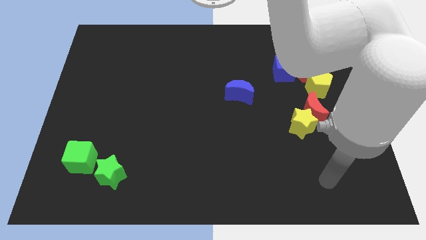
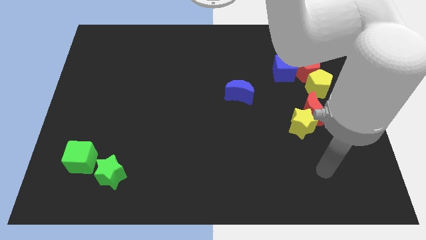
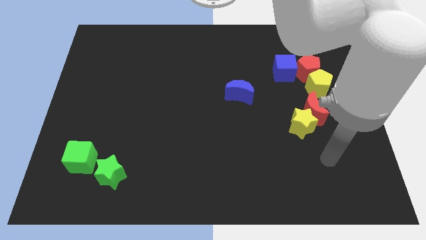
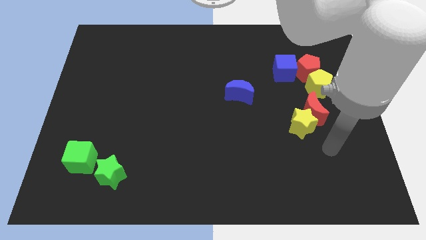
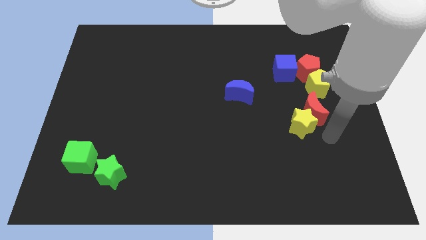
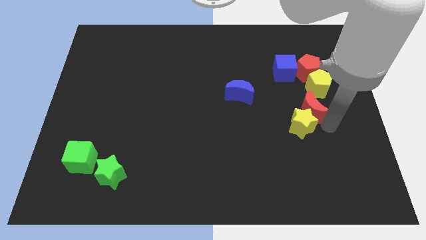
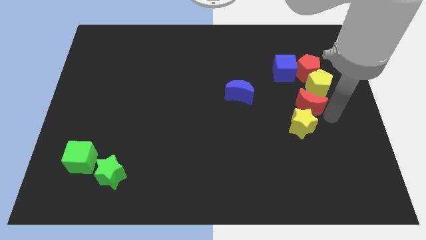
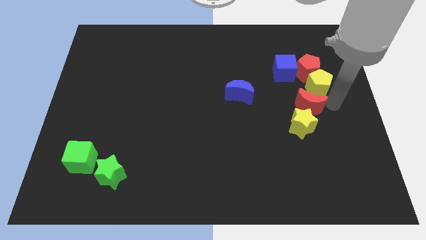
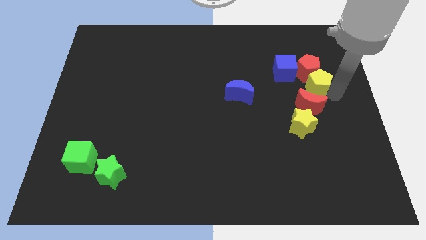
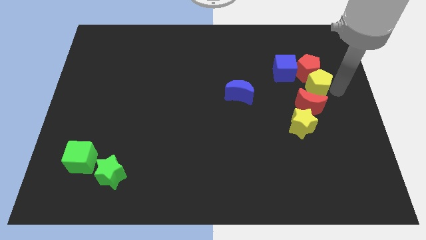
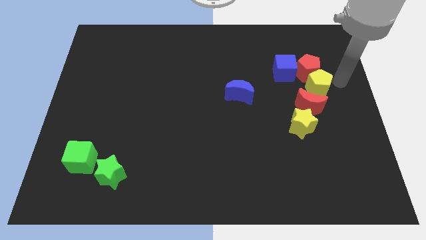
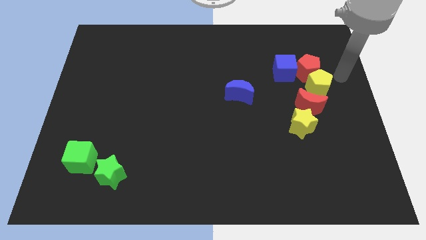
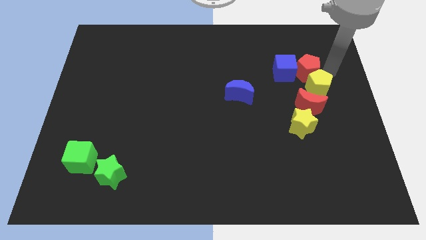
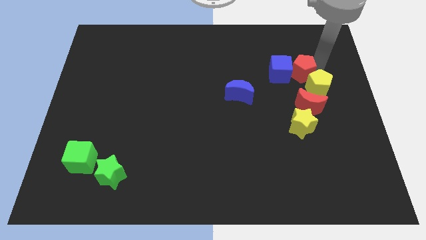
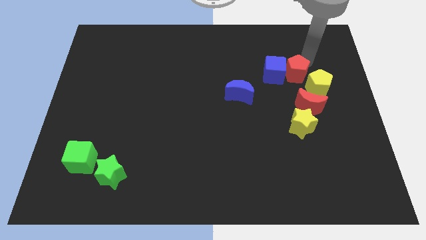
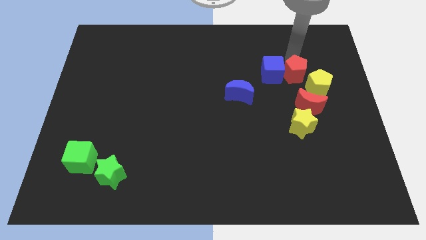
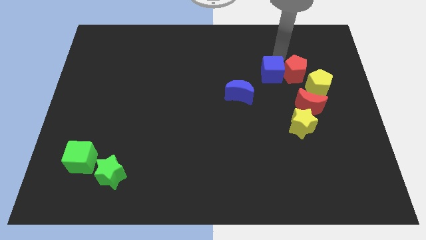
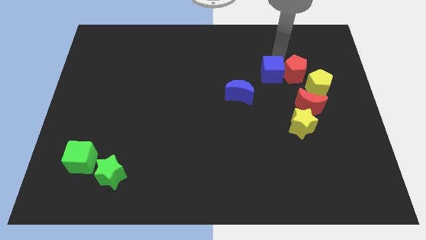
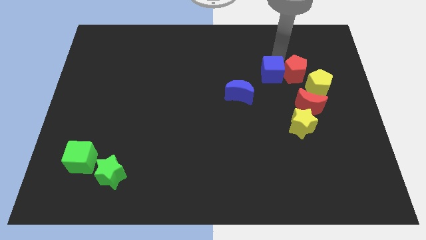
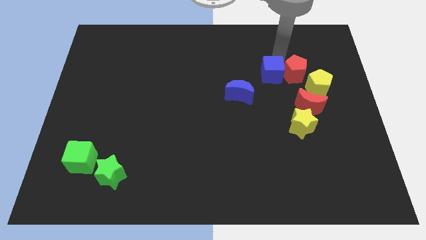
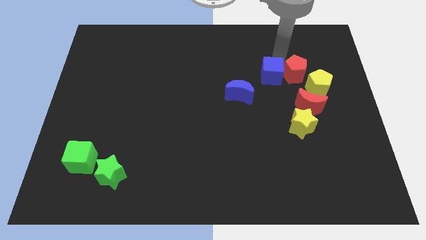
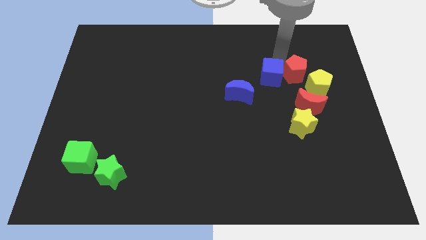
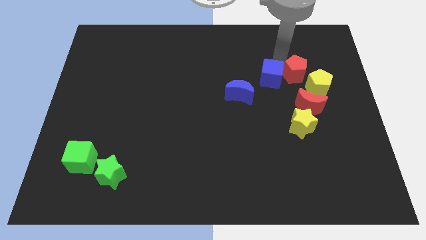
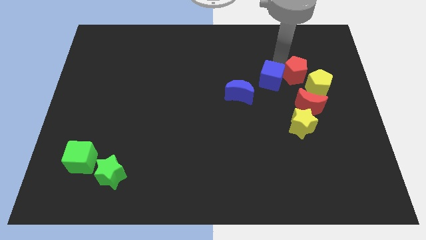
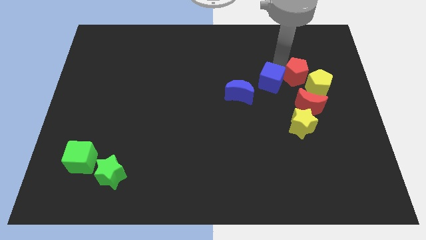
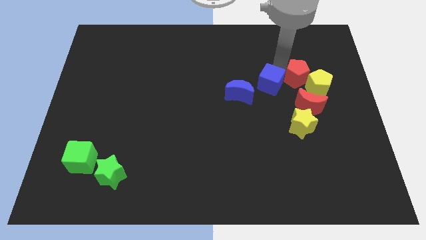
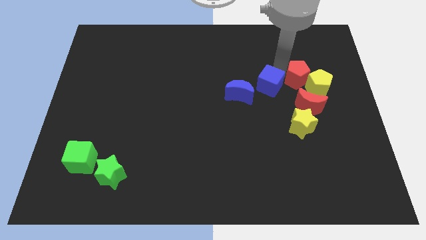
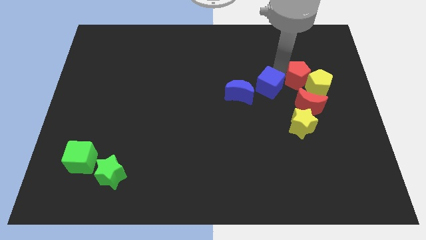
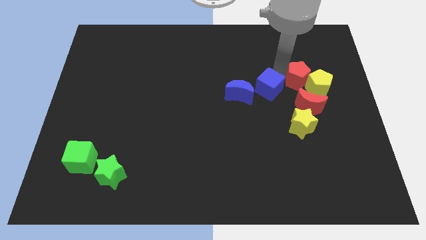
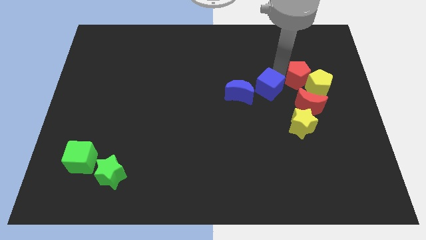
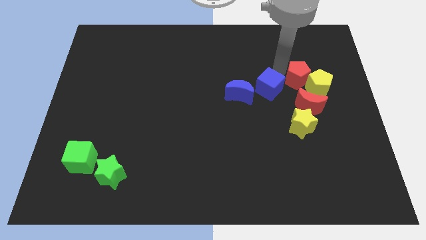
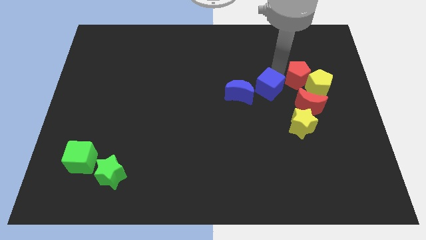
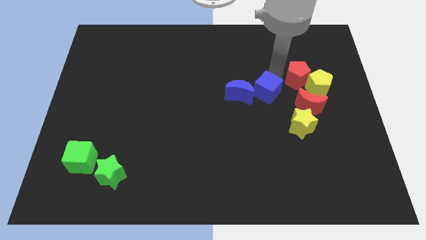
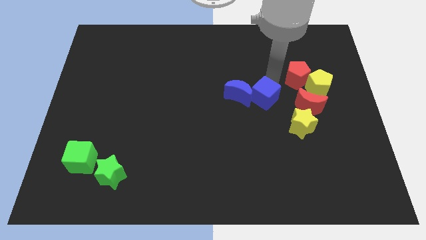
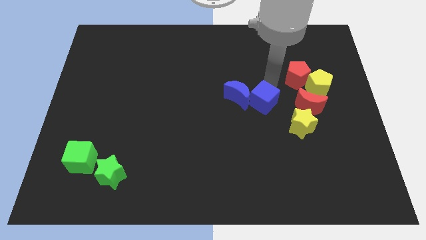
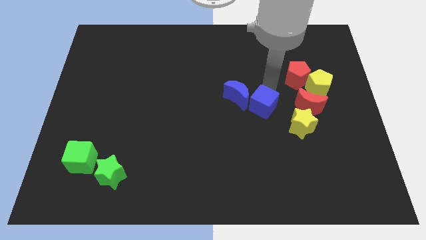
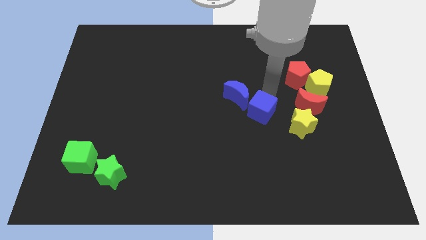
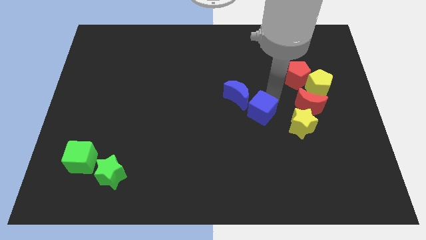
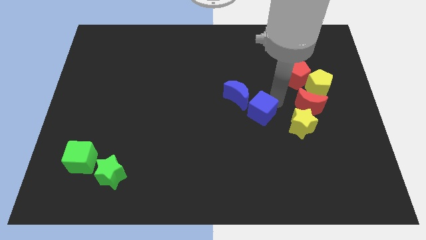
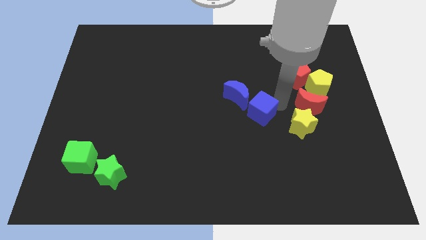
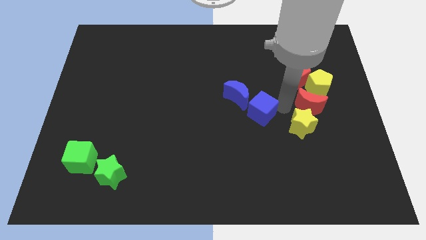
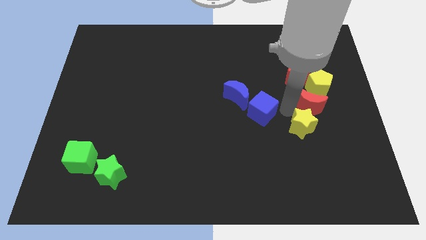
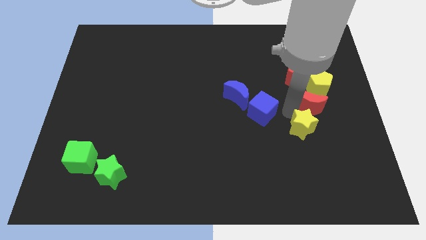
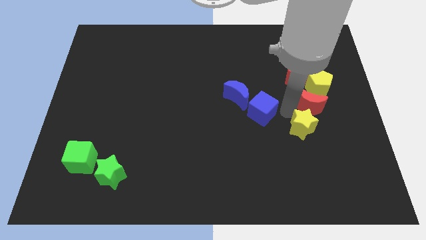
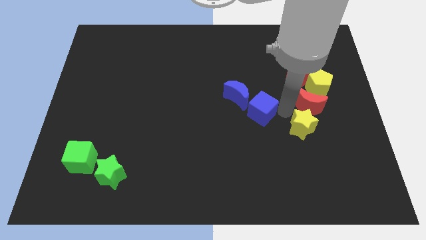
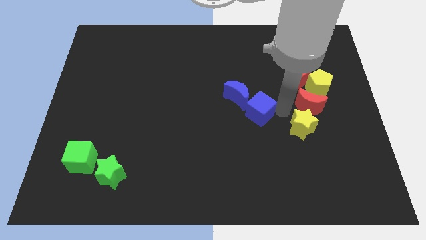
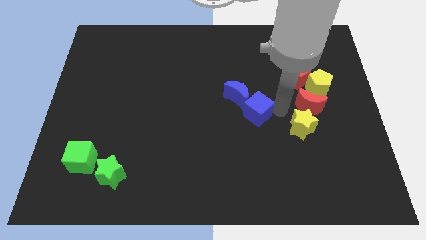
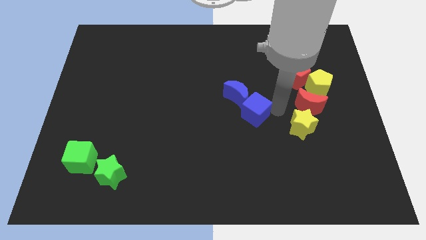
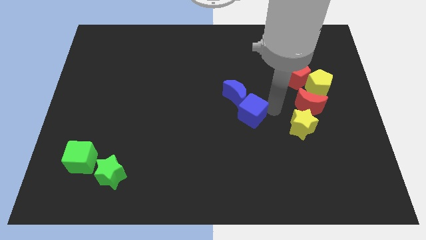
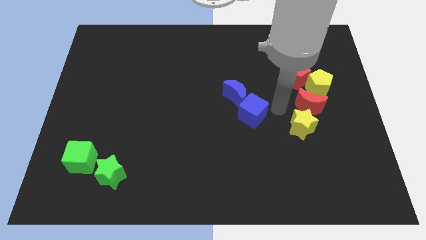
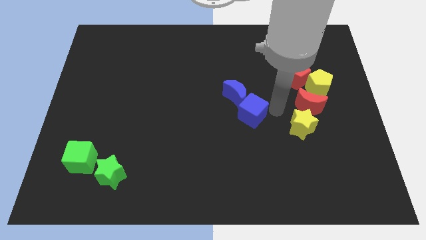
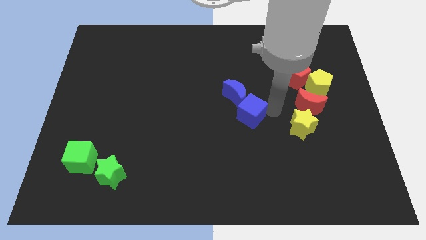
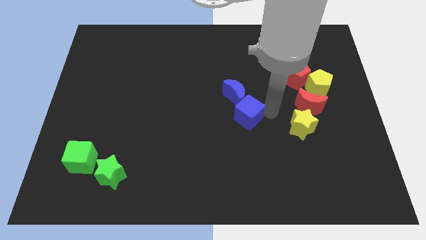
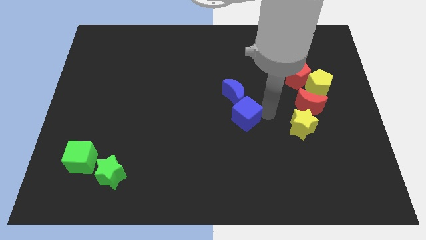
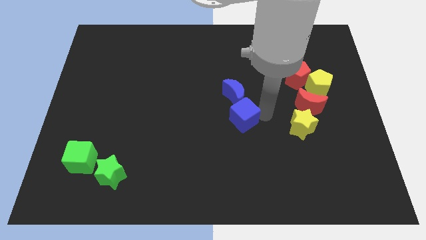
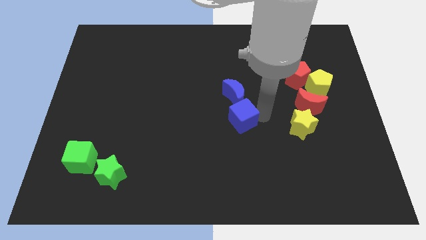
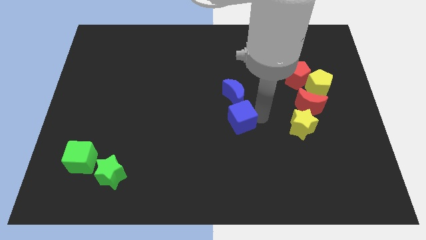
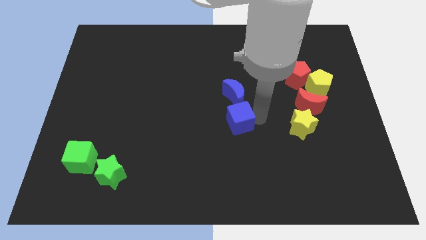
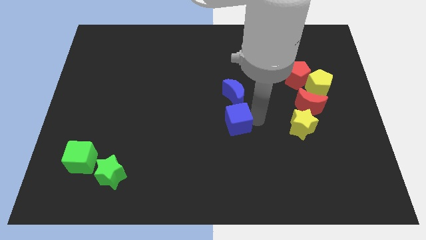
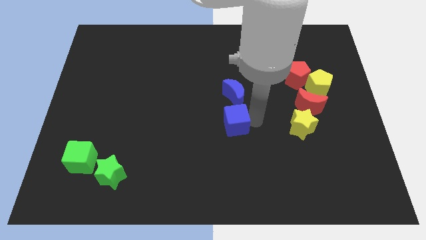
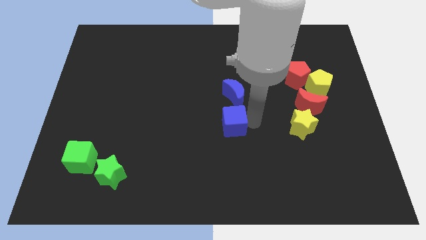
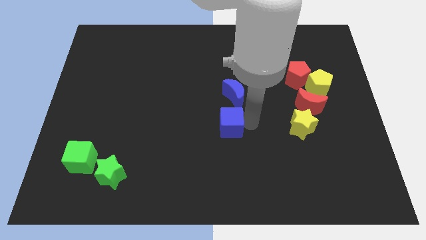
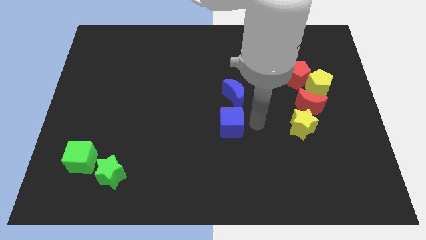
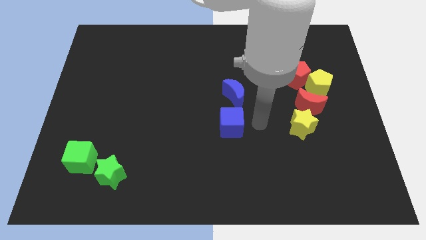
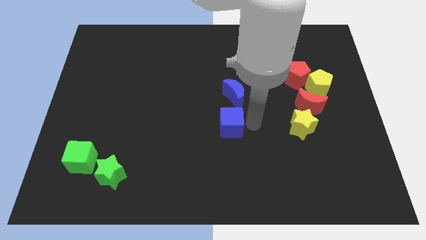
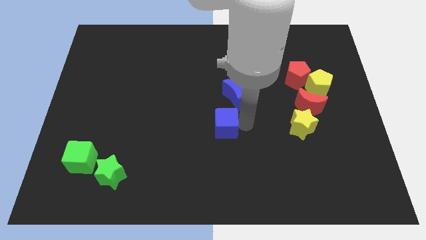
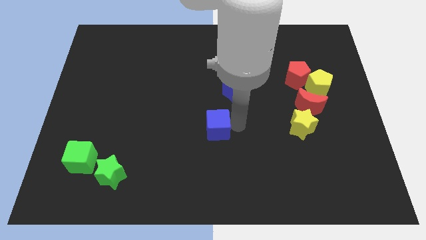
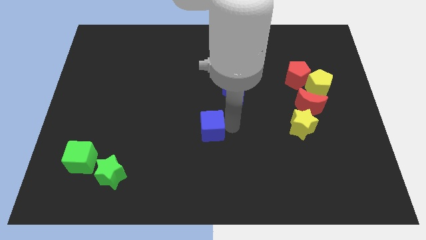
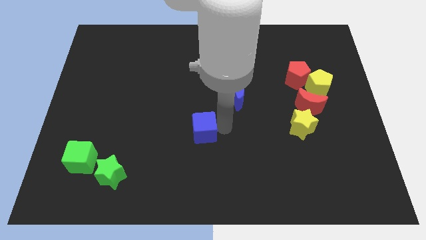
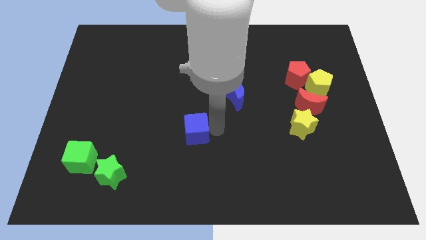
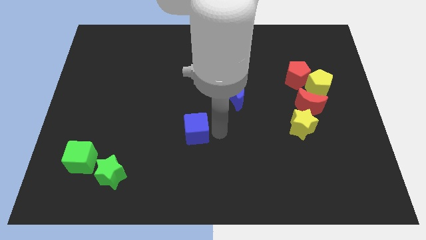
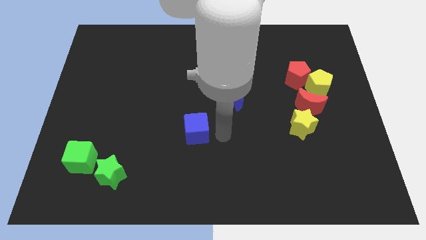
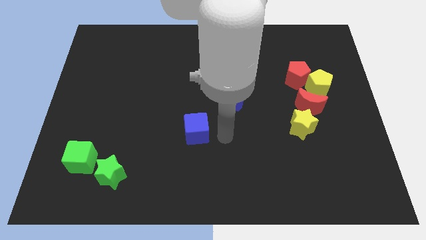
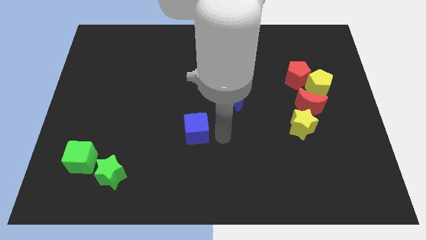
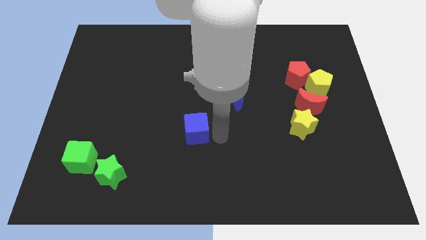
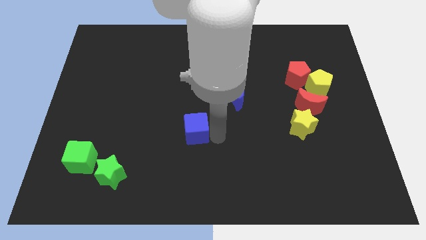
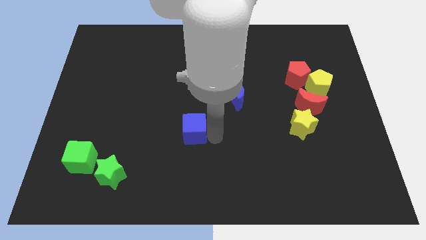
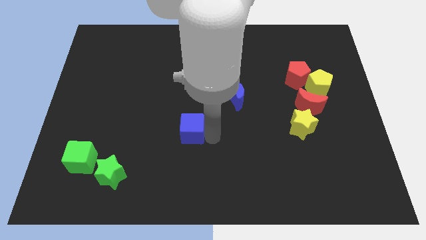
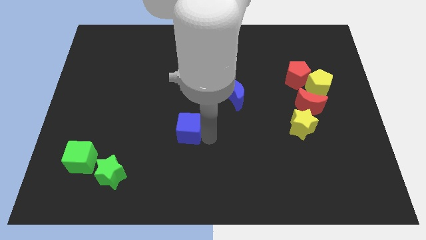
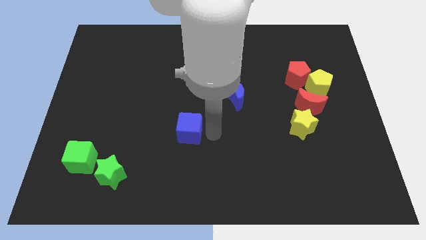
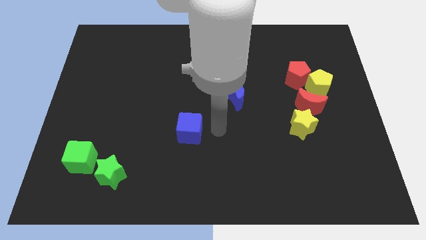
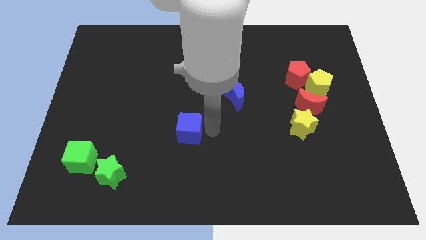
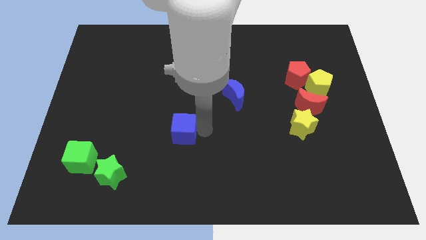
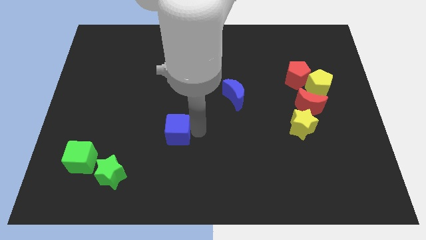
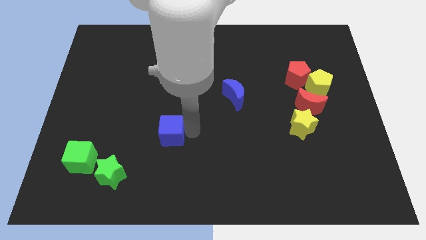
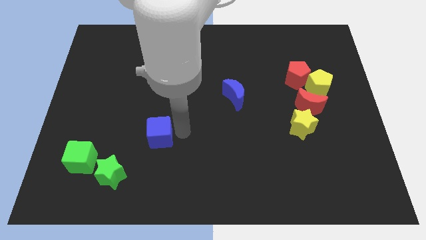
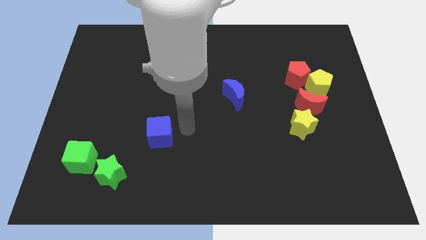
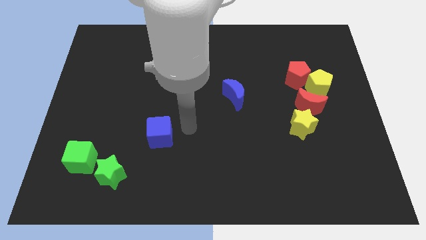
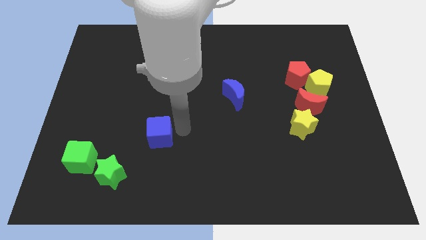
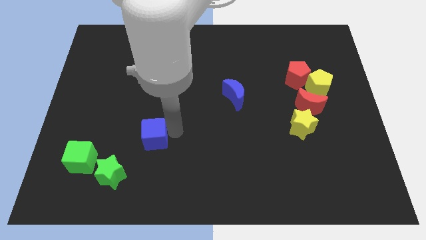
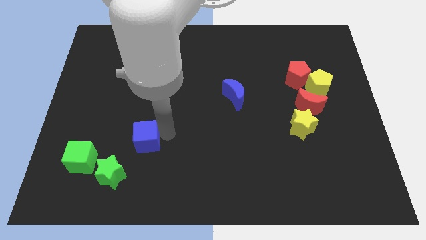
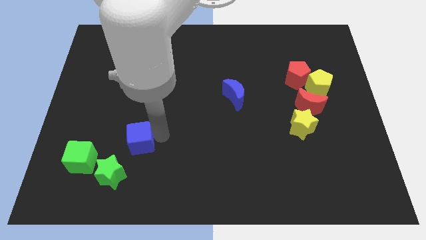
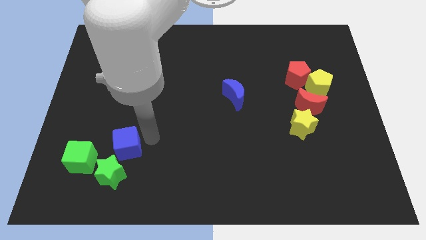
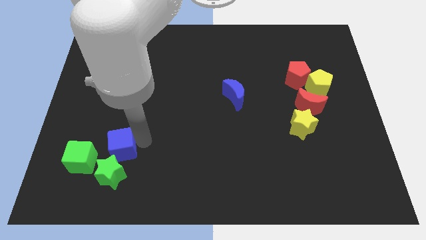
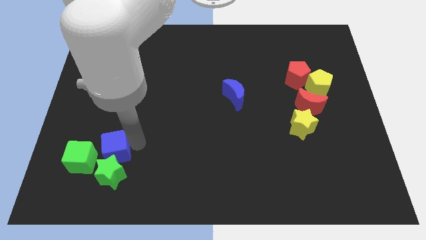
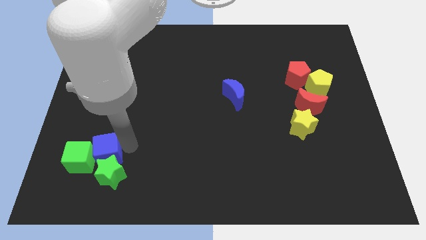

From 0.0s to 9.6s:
put the blue cube next to the green cube
